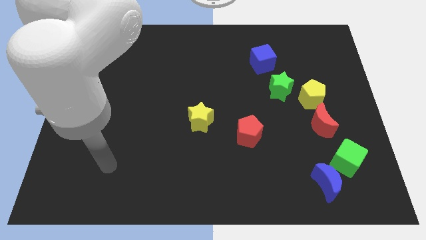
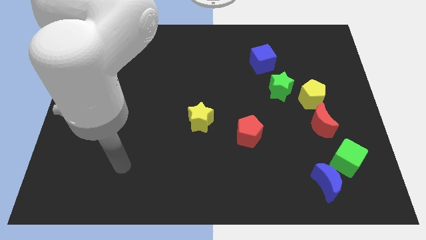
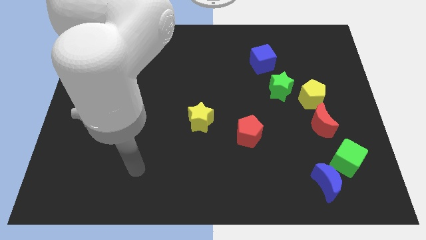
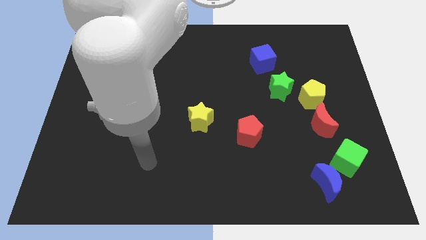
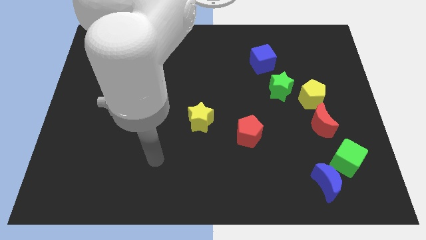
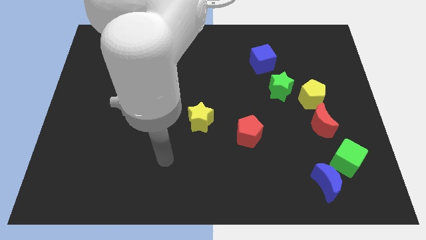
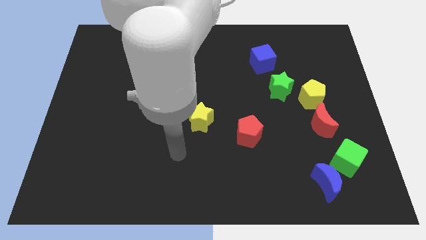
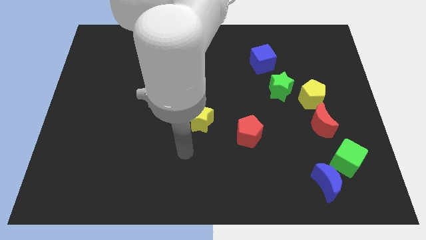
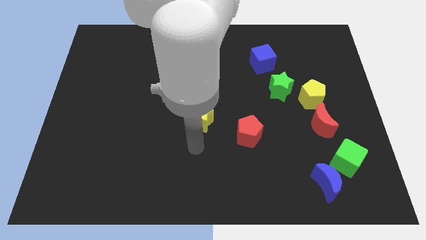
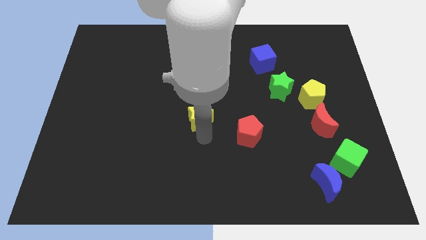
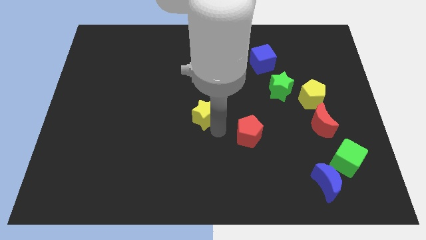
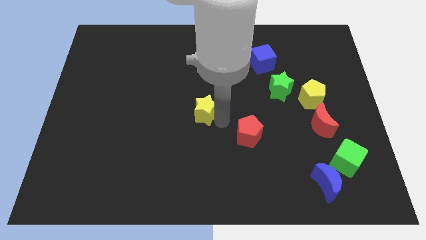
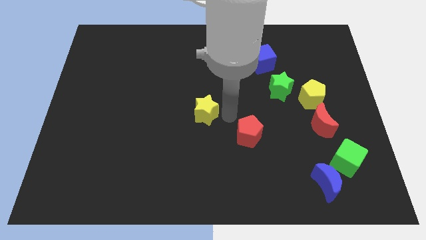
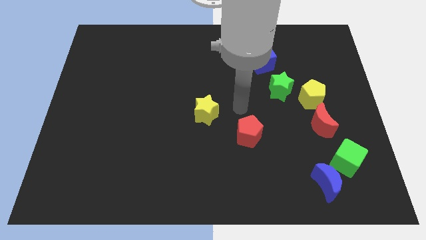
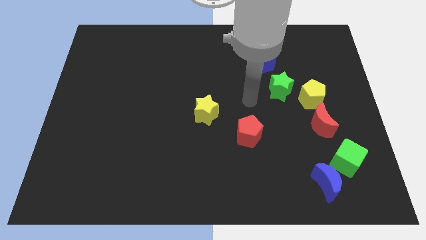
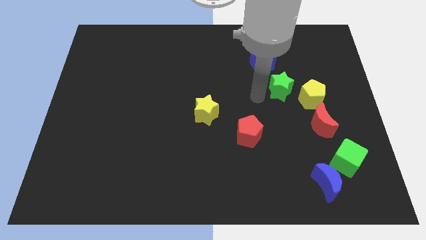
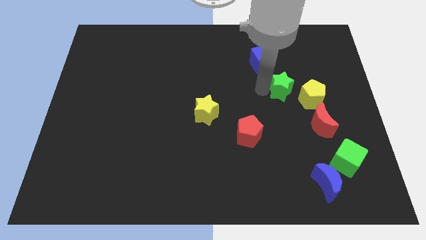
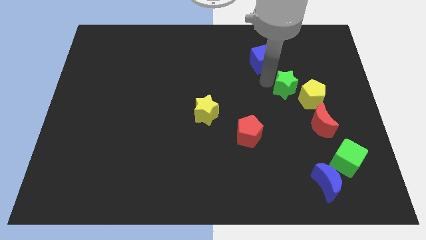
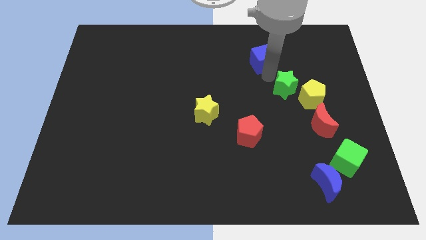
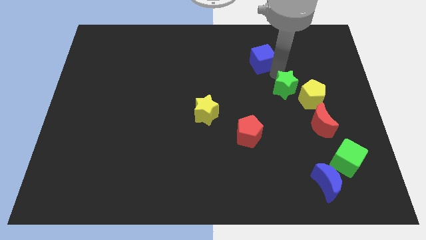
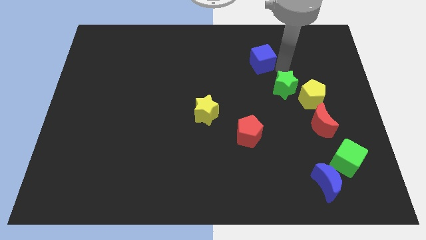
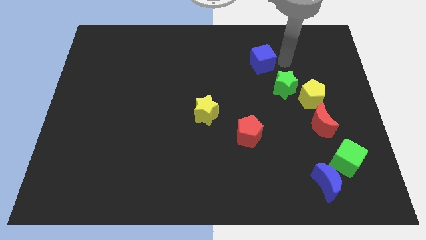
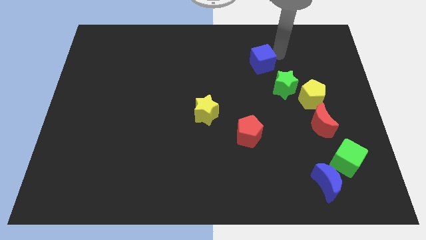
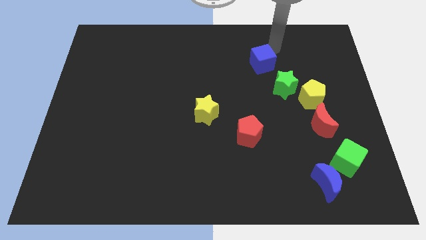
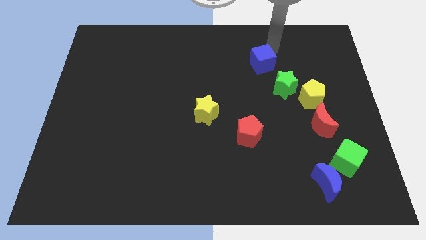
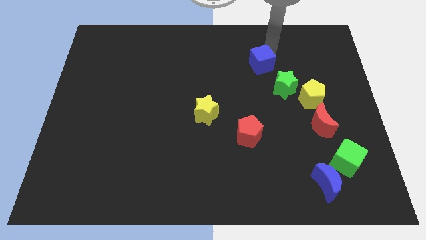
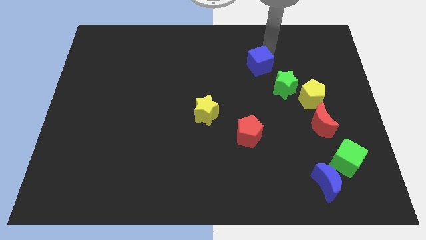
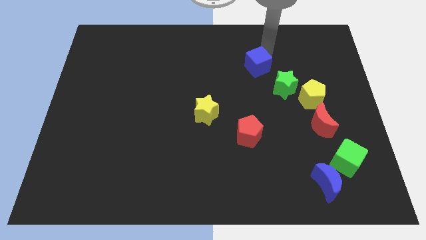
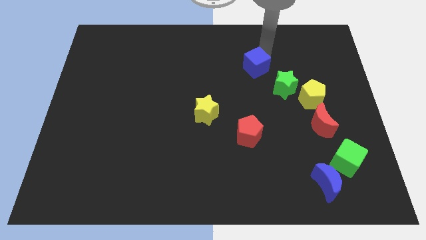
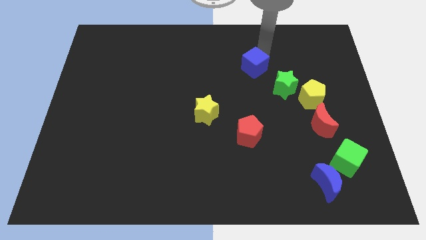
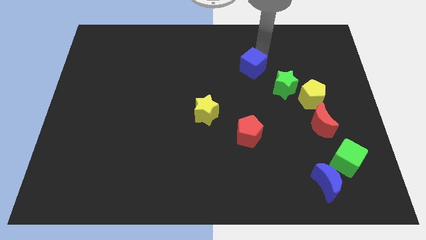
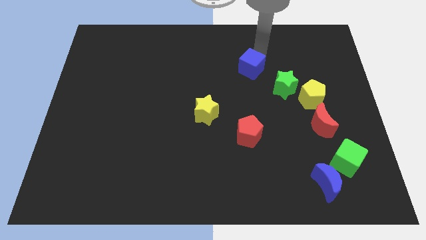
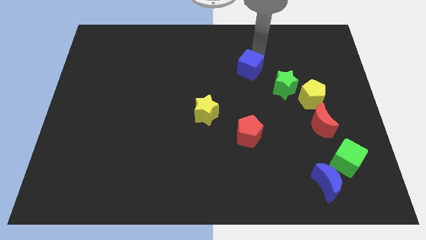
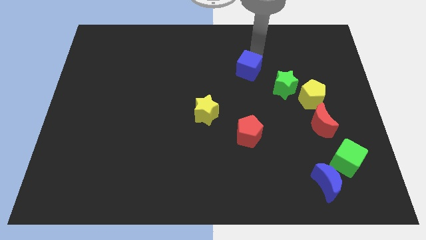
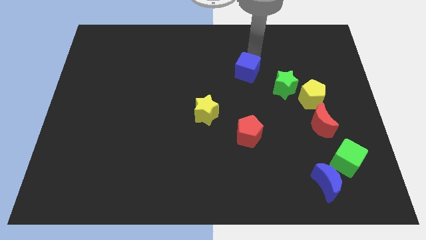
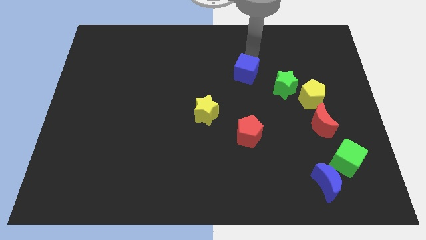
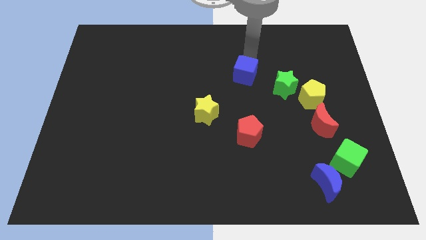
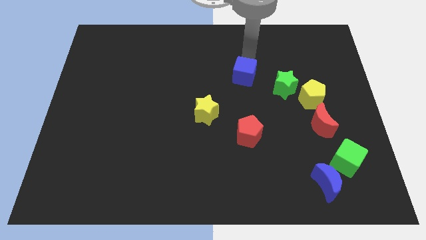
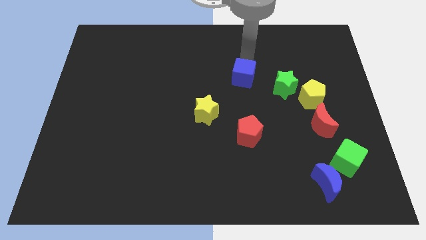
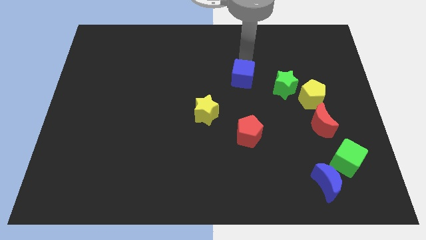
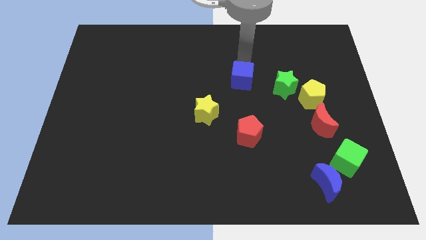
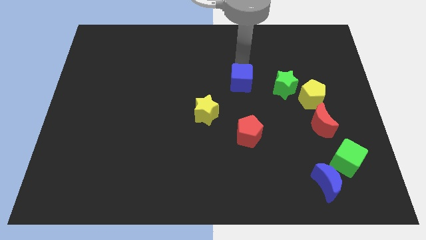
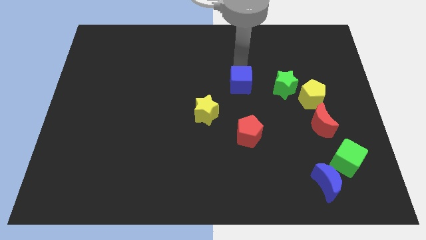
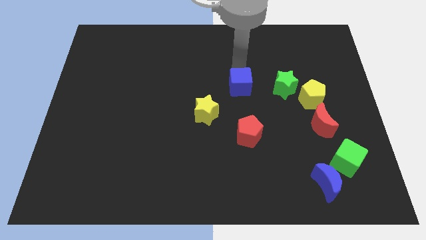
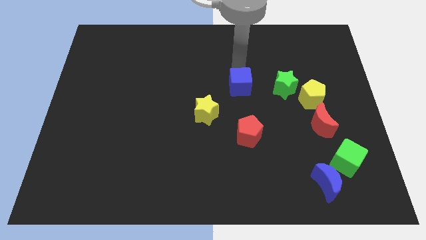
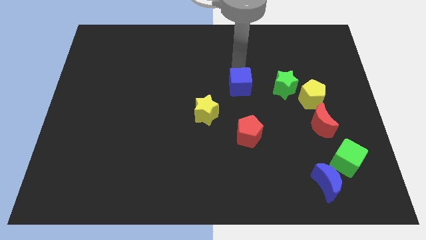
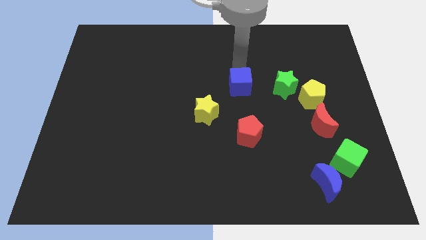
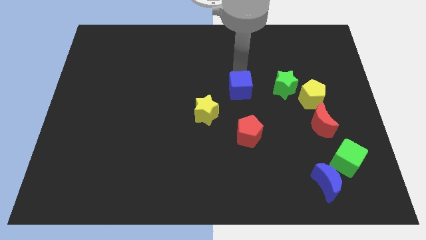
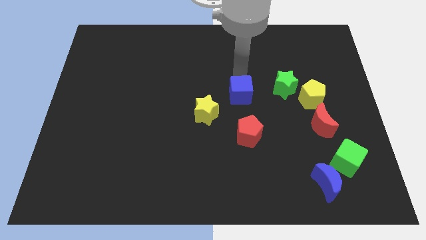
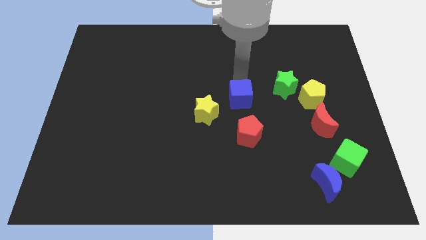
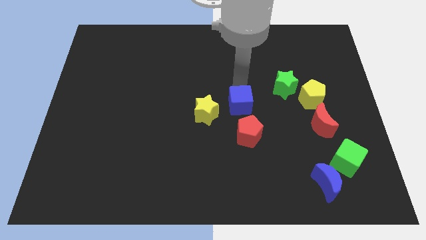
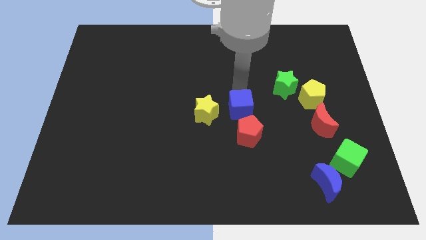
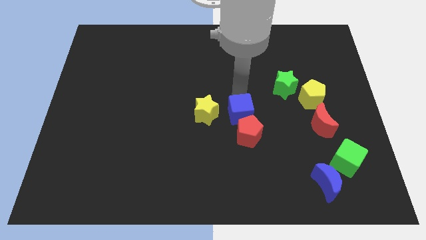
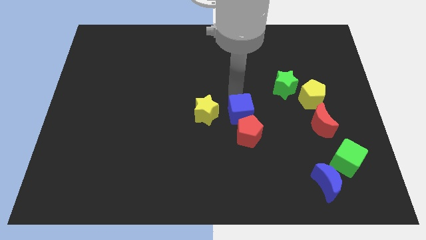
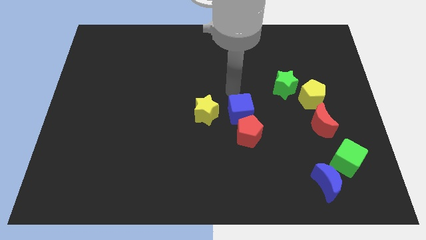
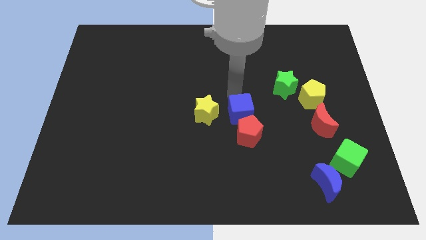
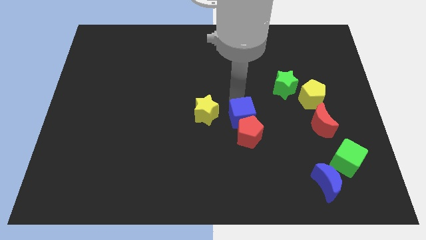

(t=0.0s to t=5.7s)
move the blue cube to the red pentagon

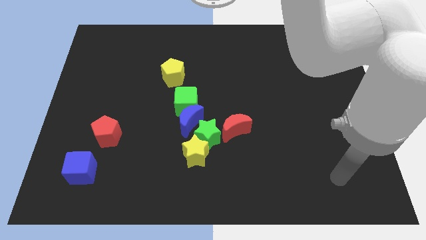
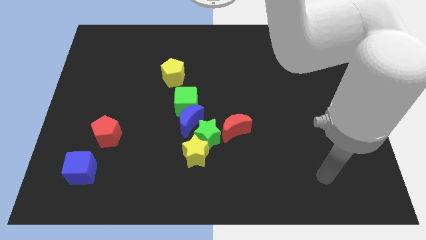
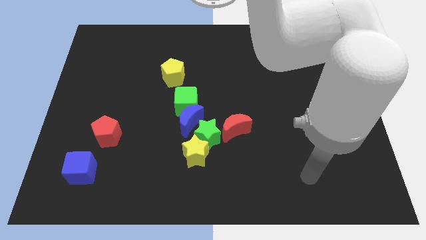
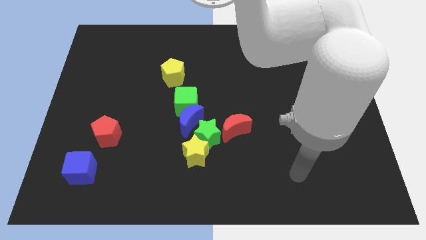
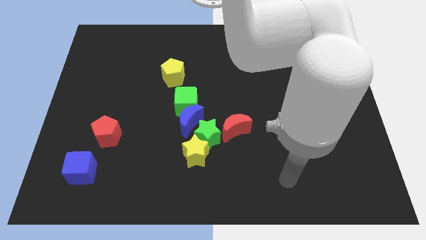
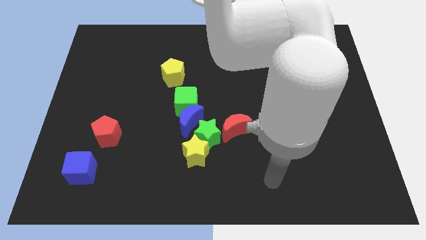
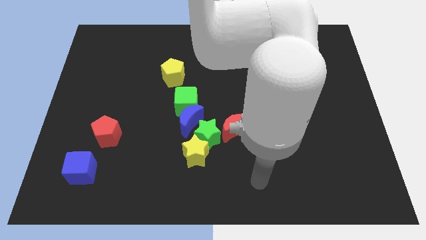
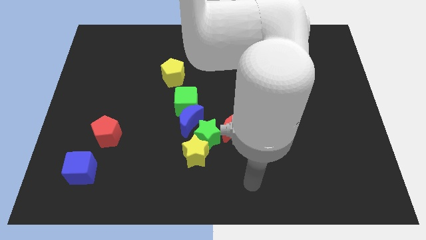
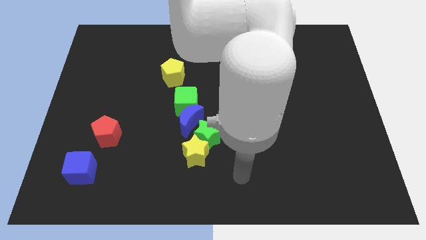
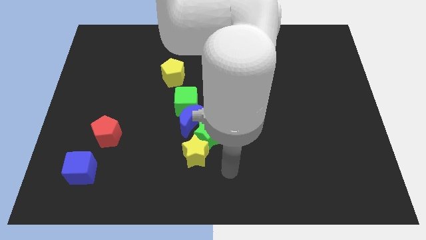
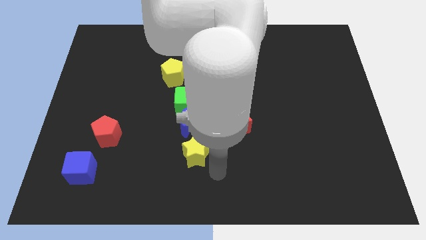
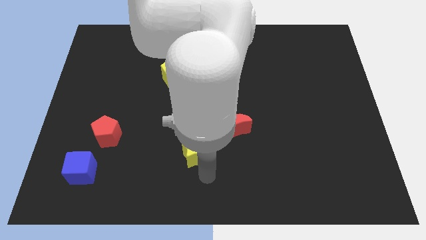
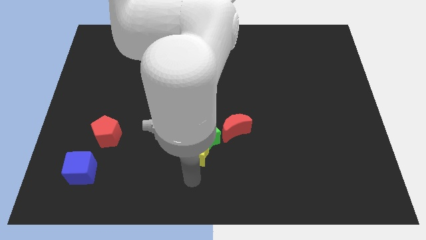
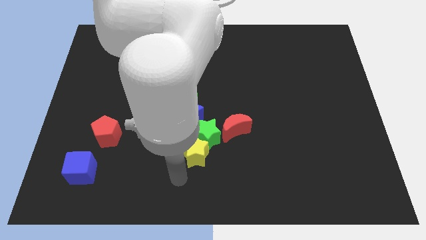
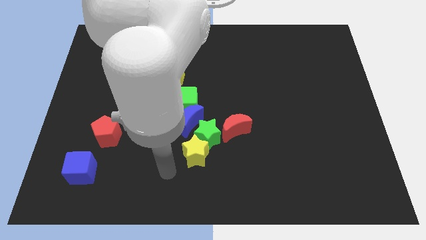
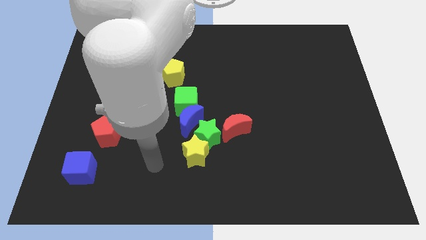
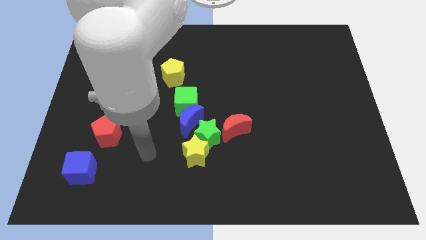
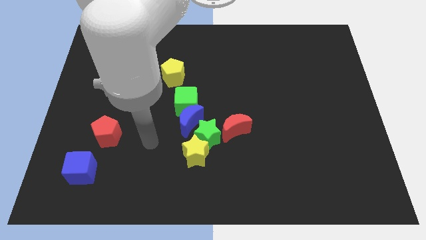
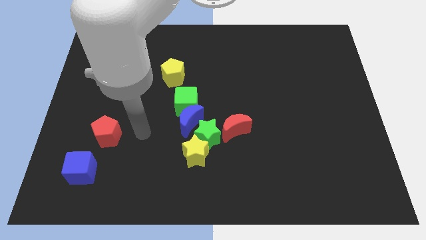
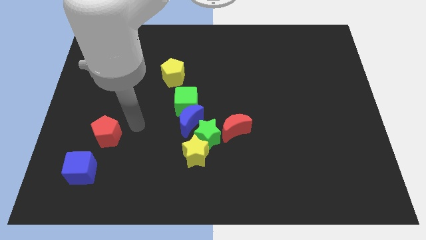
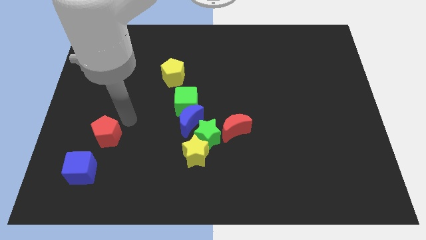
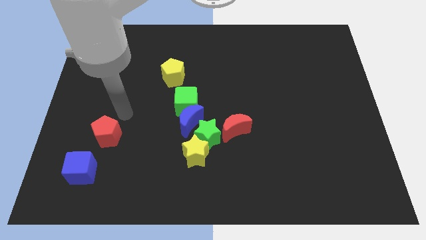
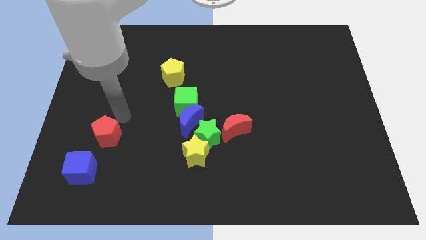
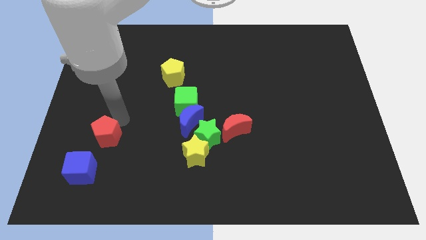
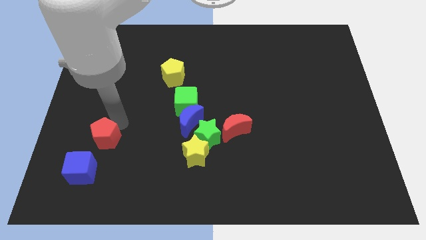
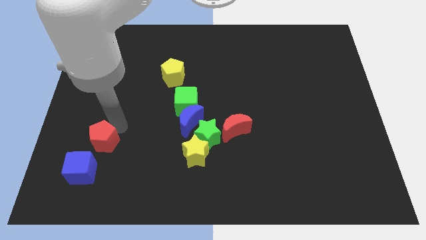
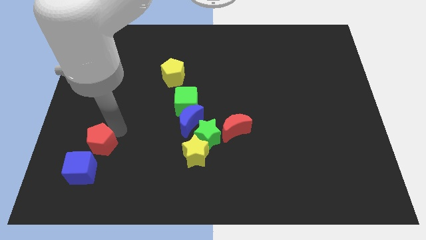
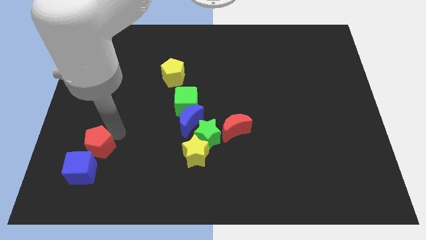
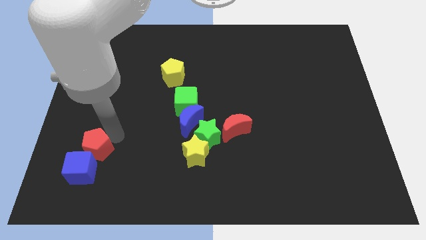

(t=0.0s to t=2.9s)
put the red pentagon next to the blue cube
